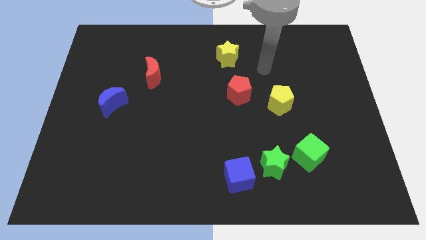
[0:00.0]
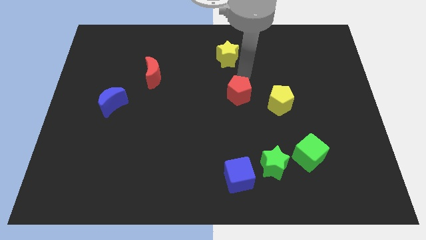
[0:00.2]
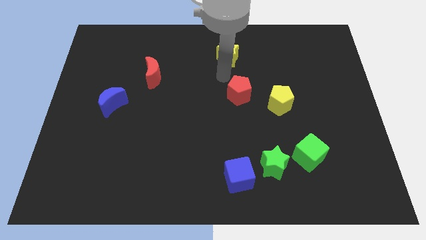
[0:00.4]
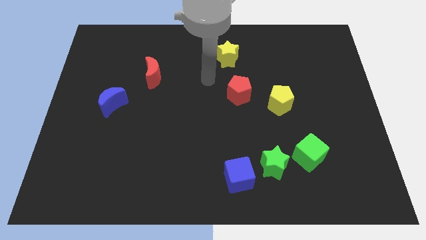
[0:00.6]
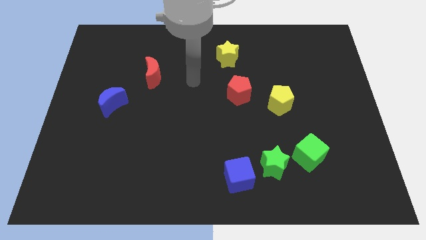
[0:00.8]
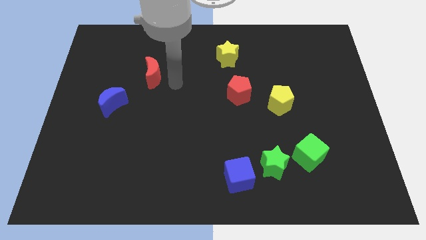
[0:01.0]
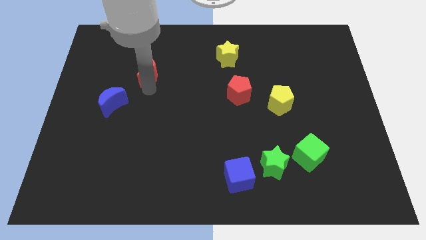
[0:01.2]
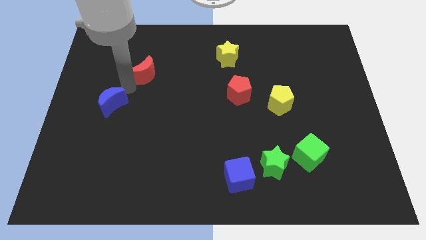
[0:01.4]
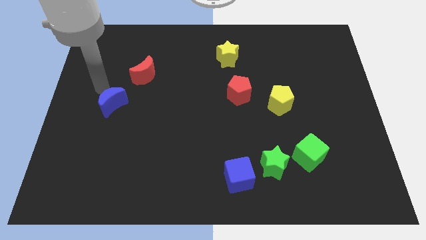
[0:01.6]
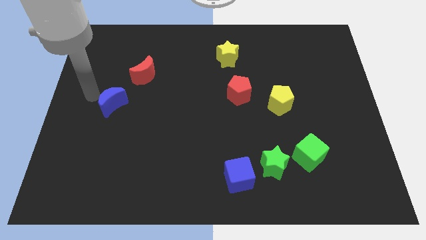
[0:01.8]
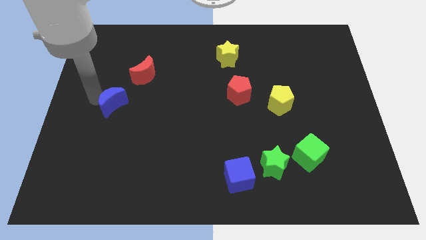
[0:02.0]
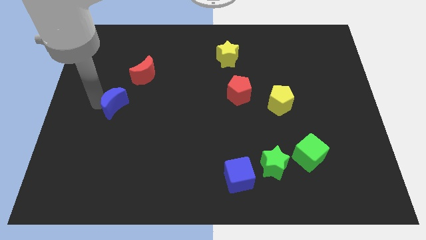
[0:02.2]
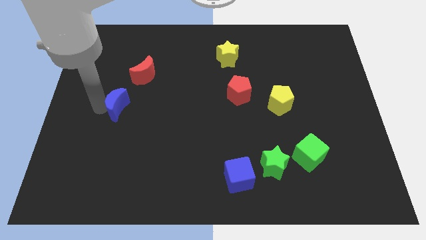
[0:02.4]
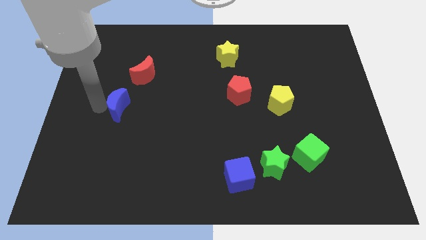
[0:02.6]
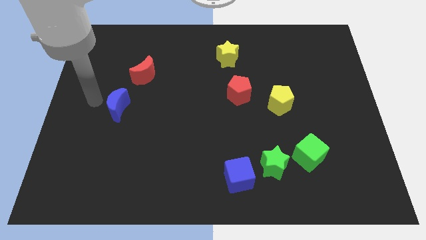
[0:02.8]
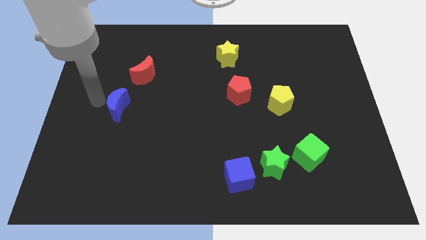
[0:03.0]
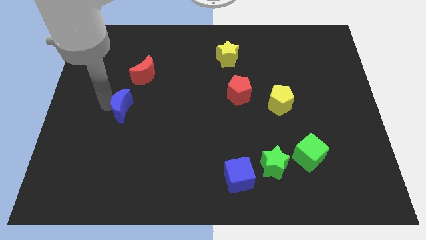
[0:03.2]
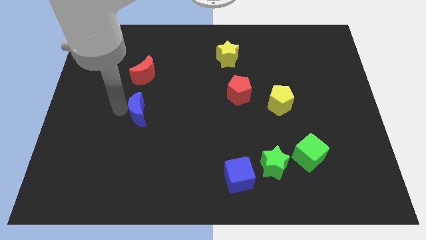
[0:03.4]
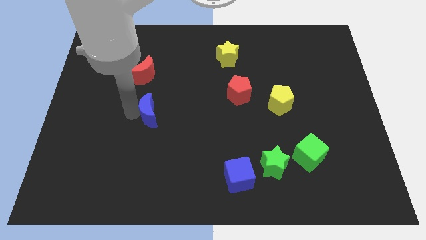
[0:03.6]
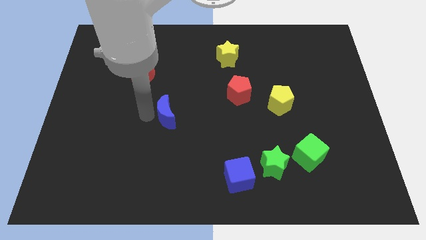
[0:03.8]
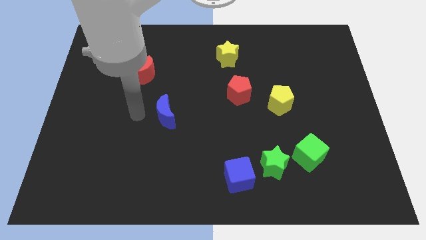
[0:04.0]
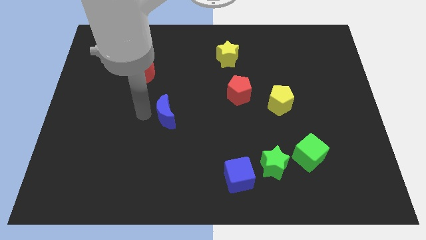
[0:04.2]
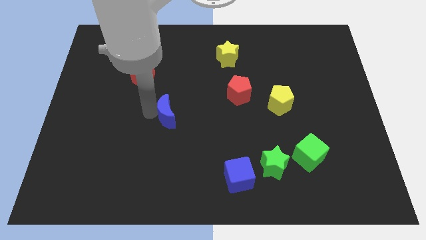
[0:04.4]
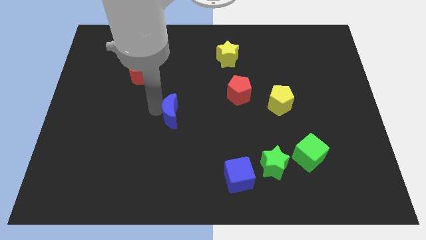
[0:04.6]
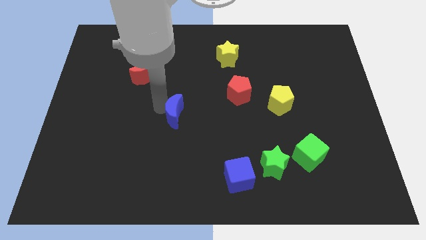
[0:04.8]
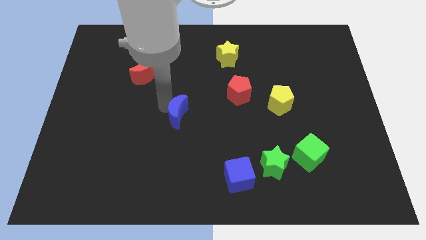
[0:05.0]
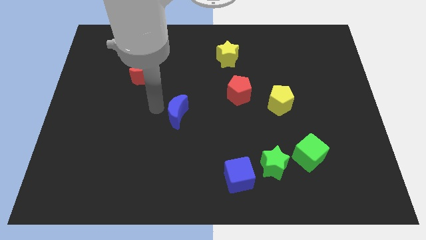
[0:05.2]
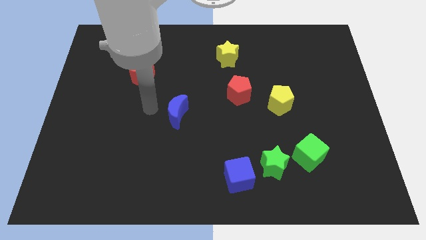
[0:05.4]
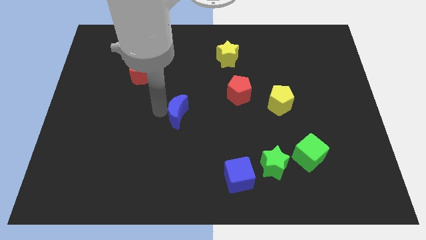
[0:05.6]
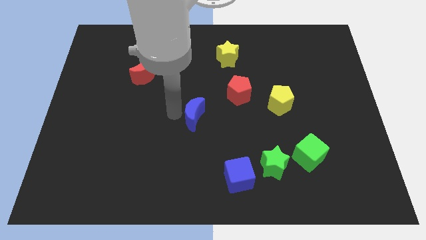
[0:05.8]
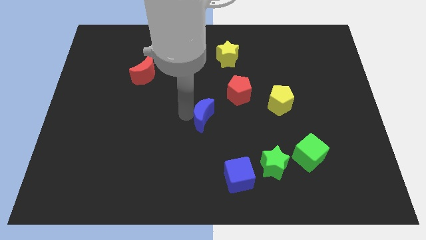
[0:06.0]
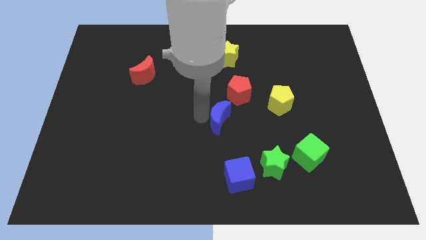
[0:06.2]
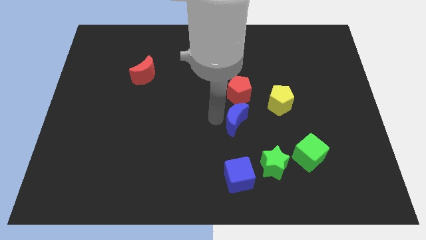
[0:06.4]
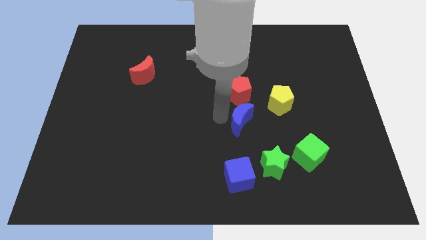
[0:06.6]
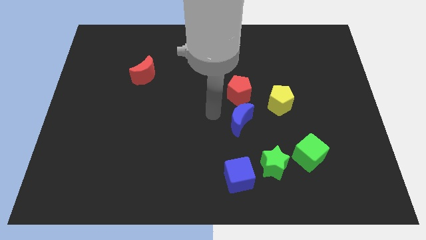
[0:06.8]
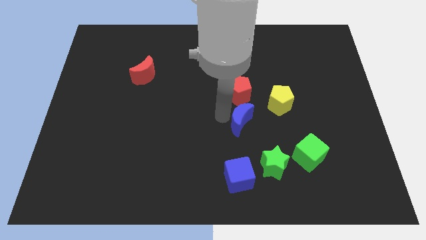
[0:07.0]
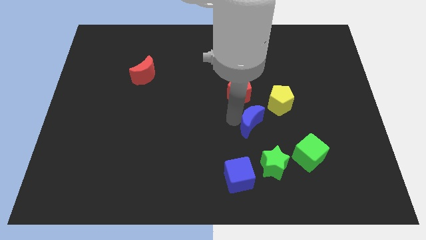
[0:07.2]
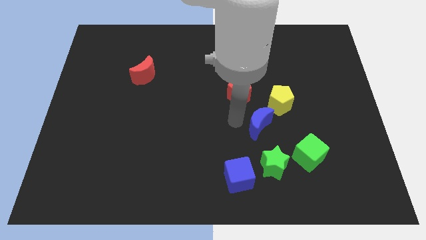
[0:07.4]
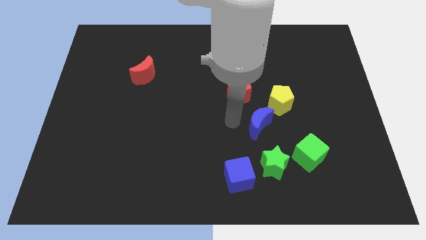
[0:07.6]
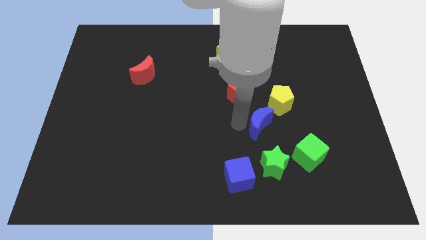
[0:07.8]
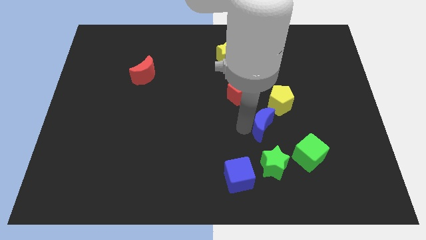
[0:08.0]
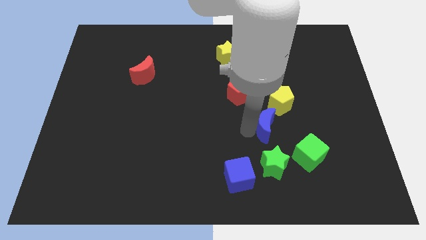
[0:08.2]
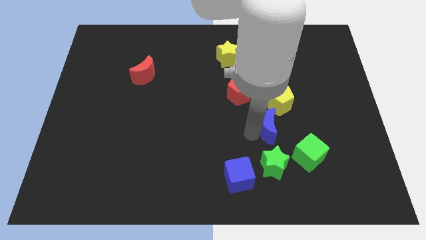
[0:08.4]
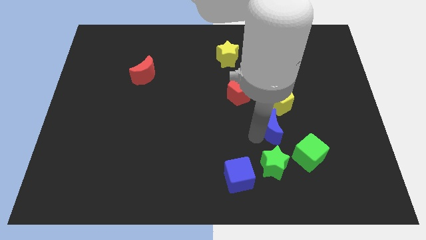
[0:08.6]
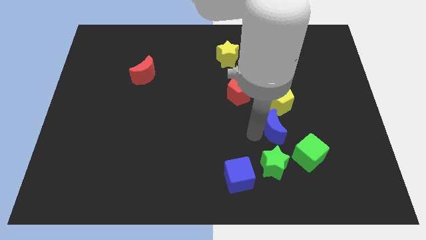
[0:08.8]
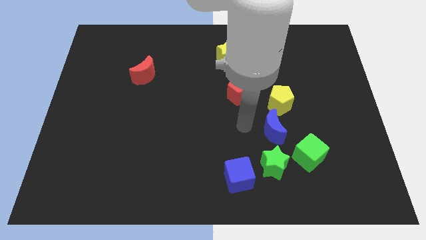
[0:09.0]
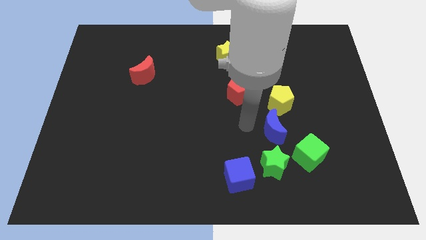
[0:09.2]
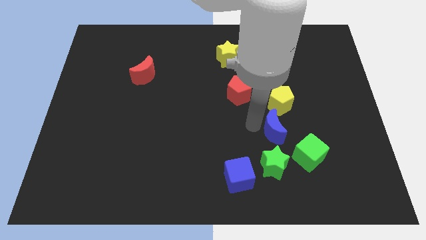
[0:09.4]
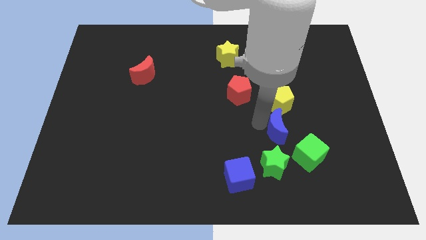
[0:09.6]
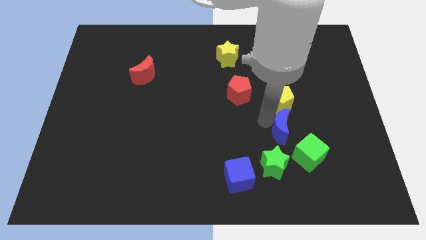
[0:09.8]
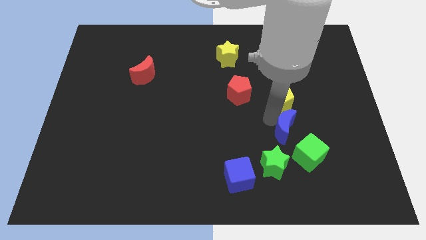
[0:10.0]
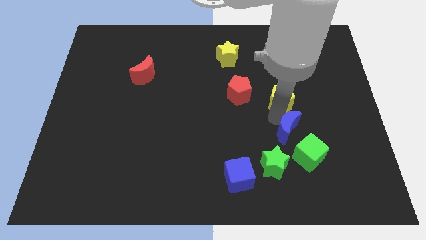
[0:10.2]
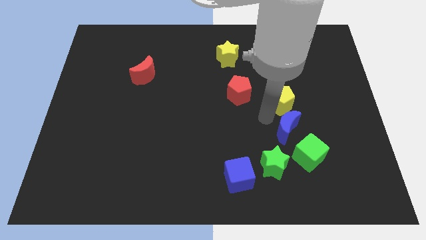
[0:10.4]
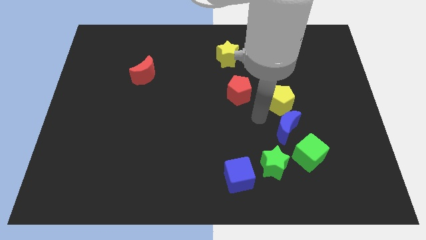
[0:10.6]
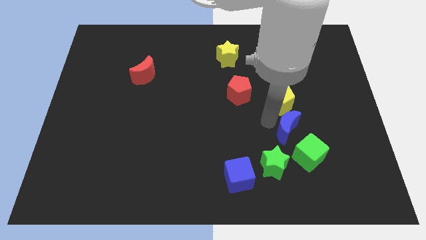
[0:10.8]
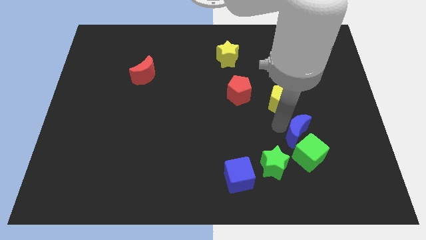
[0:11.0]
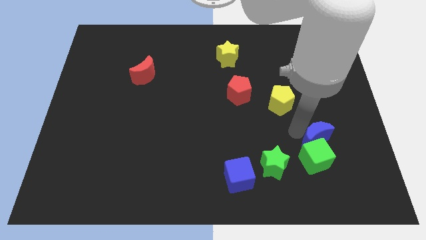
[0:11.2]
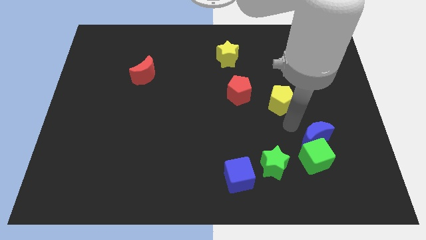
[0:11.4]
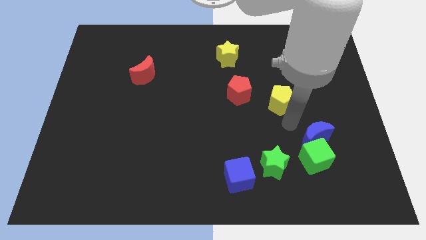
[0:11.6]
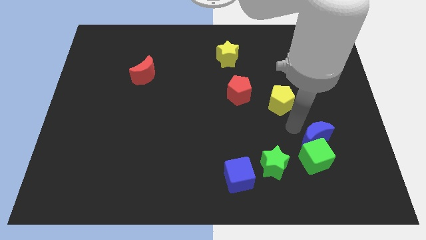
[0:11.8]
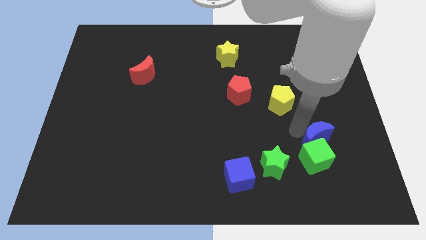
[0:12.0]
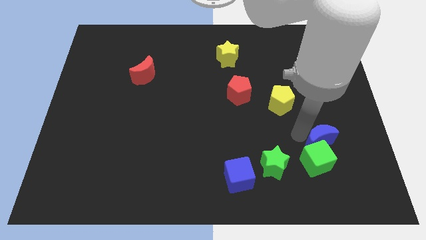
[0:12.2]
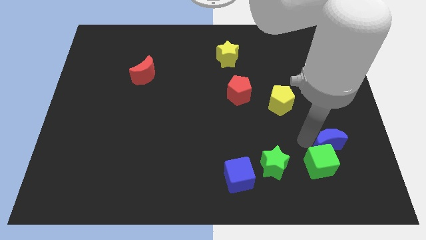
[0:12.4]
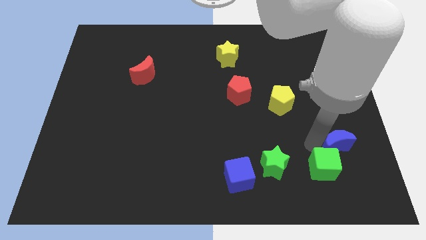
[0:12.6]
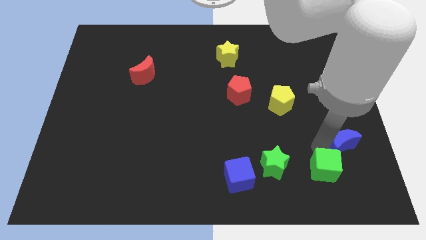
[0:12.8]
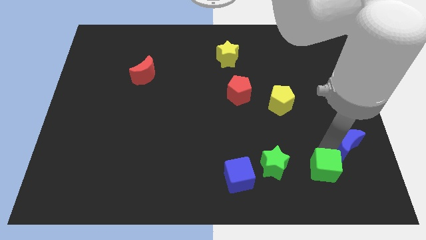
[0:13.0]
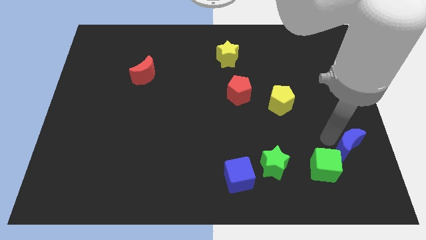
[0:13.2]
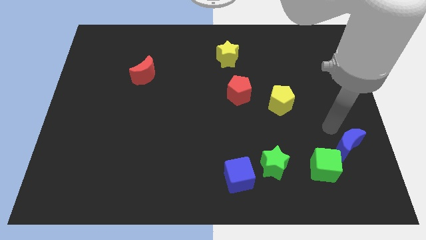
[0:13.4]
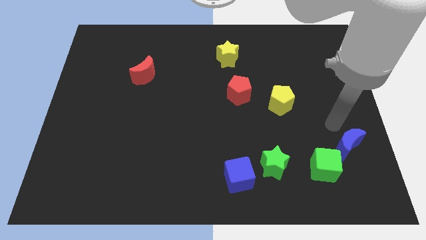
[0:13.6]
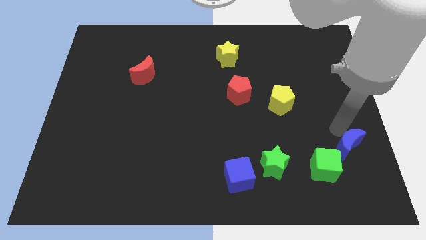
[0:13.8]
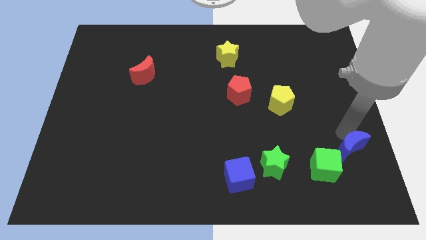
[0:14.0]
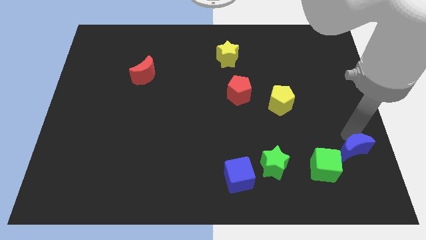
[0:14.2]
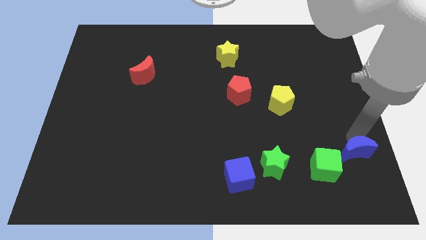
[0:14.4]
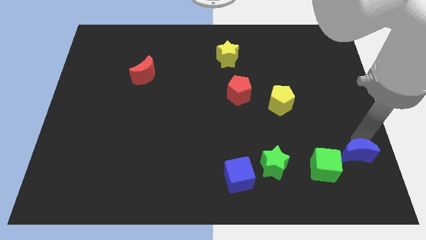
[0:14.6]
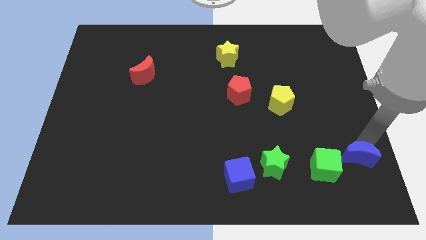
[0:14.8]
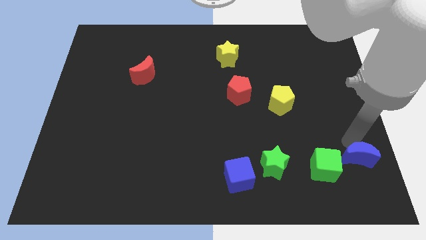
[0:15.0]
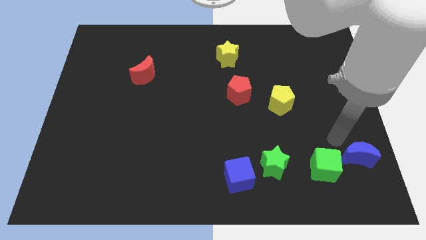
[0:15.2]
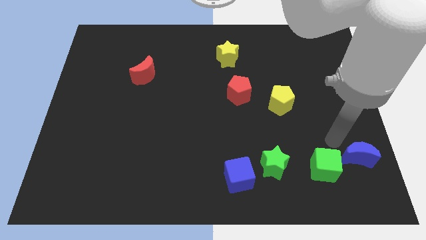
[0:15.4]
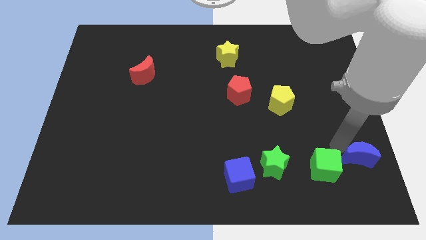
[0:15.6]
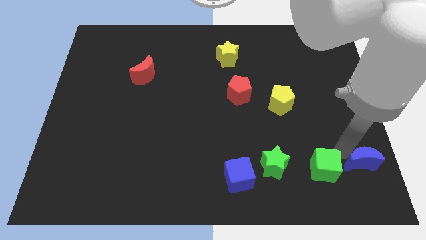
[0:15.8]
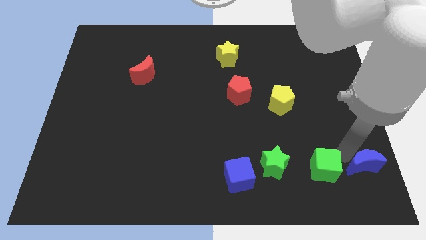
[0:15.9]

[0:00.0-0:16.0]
move the blue moon to the bottom right of the board

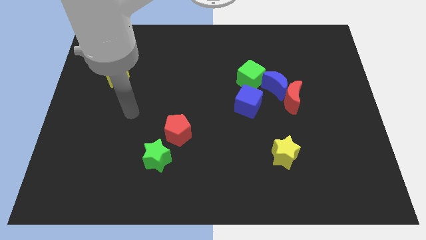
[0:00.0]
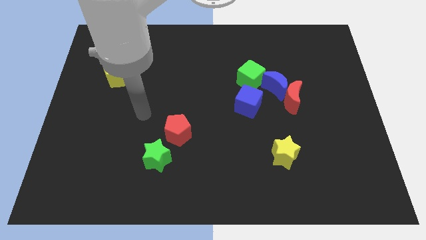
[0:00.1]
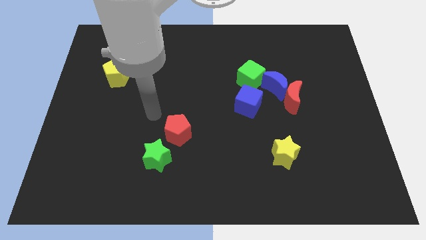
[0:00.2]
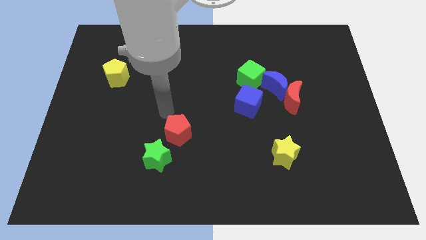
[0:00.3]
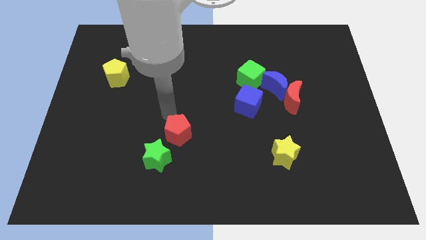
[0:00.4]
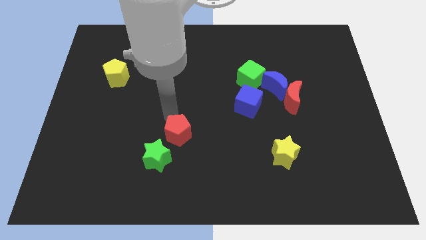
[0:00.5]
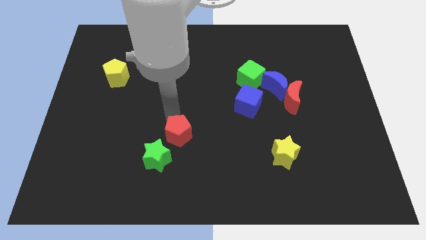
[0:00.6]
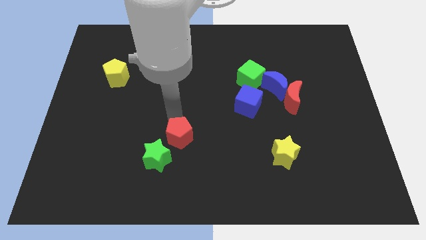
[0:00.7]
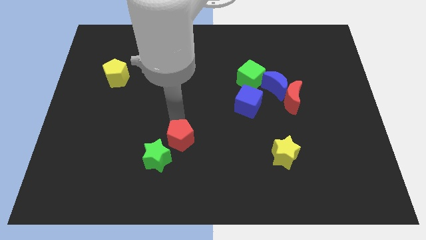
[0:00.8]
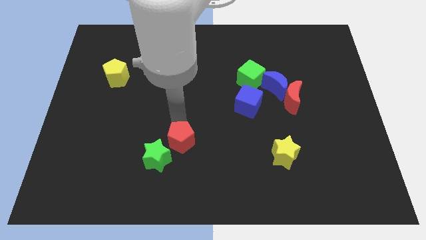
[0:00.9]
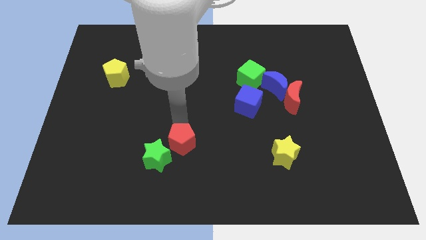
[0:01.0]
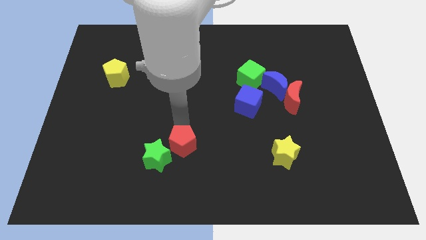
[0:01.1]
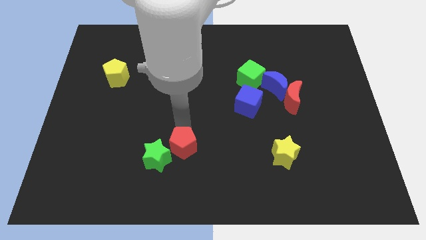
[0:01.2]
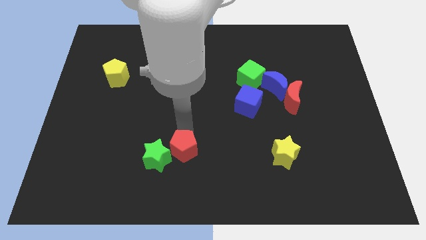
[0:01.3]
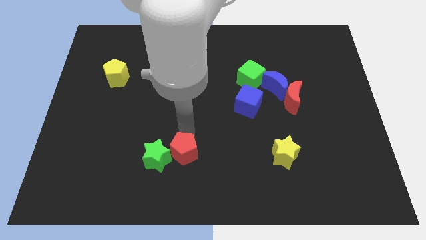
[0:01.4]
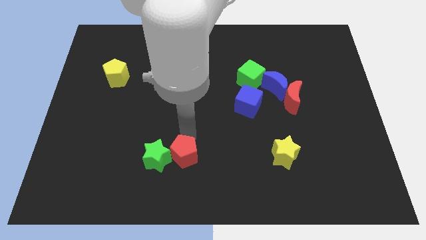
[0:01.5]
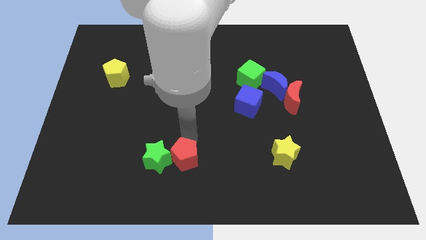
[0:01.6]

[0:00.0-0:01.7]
slide the red pentagon to the bottom
